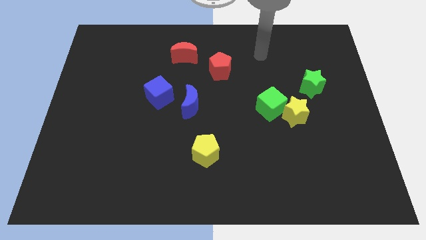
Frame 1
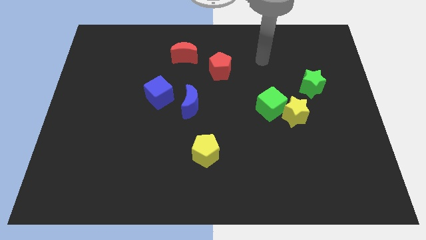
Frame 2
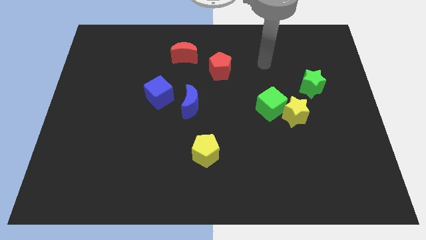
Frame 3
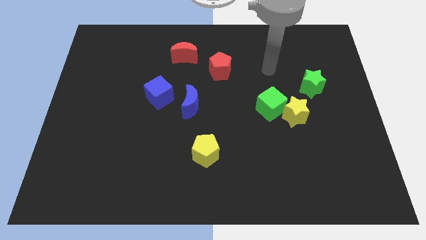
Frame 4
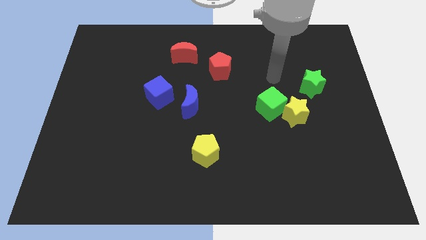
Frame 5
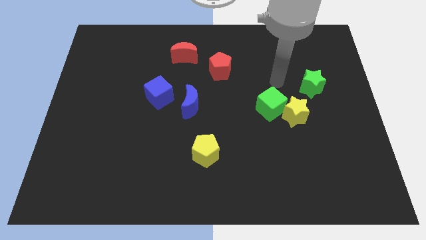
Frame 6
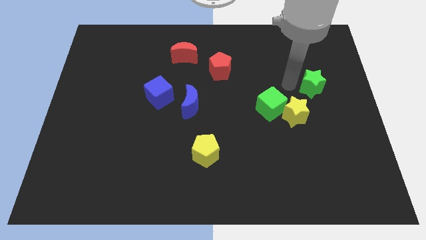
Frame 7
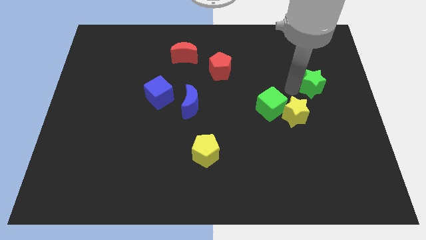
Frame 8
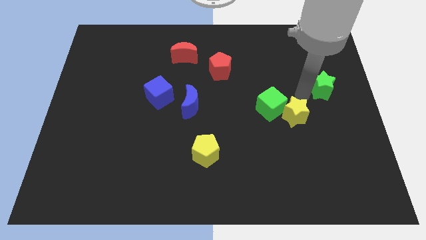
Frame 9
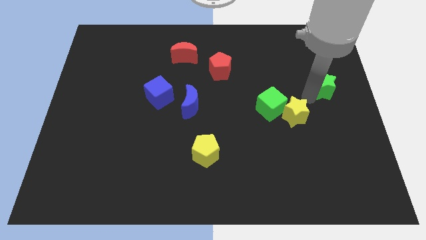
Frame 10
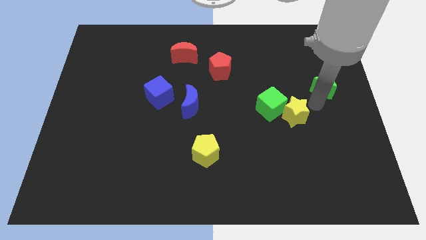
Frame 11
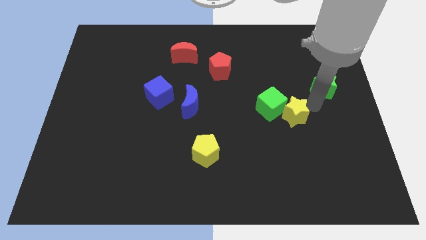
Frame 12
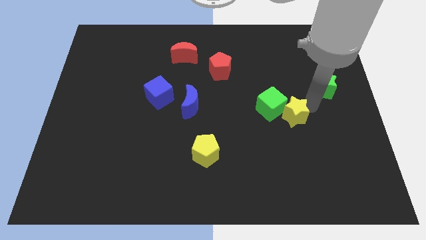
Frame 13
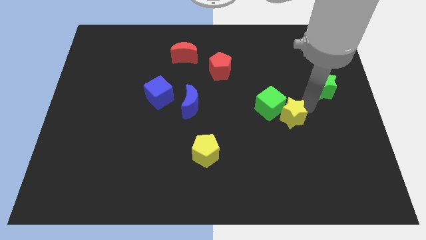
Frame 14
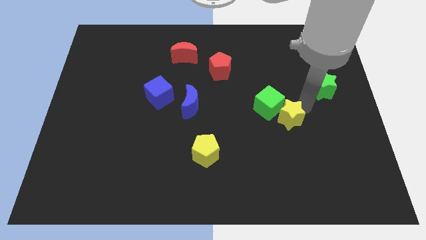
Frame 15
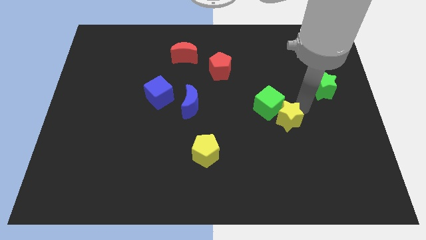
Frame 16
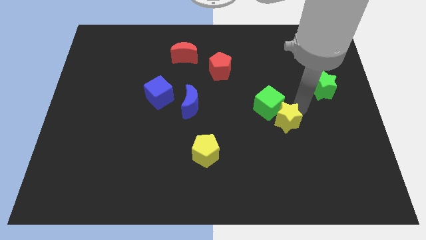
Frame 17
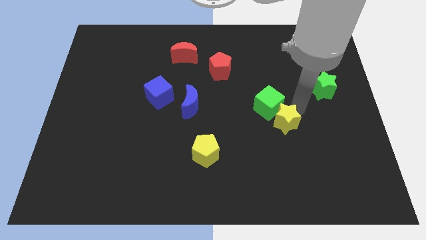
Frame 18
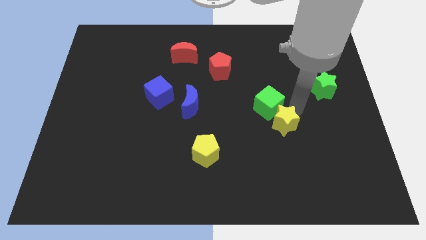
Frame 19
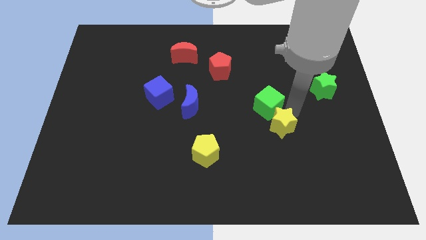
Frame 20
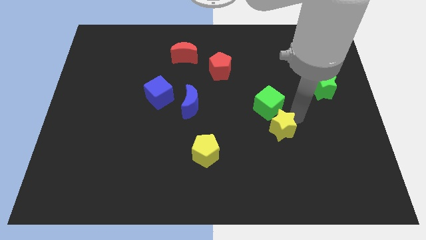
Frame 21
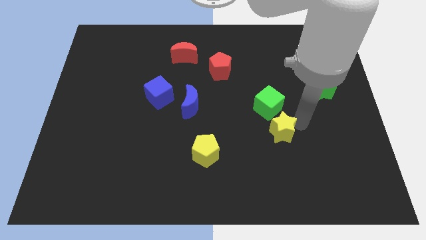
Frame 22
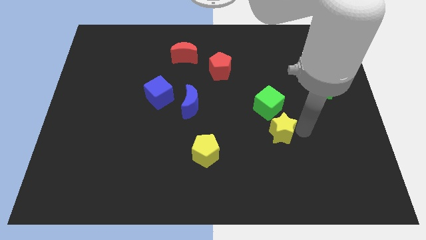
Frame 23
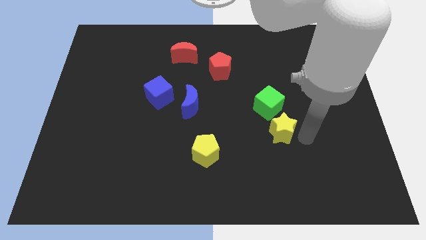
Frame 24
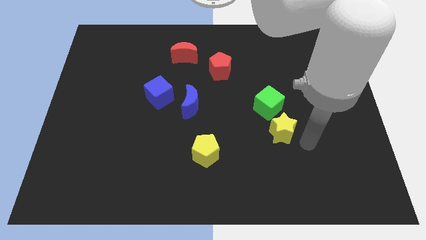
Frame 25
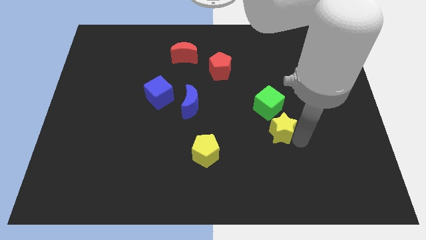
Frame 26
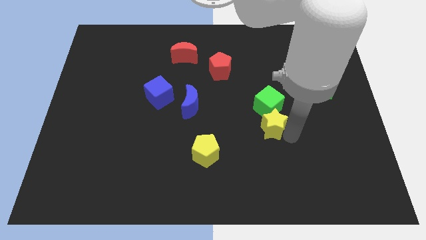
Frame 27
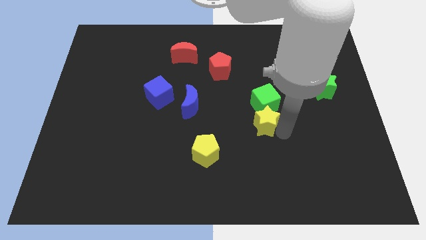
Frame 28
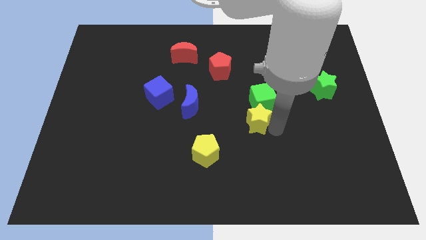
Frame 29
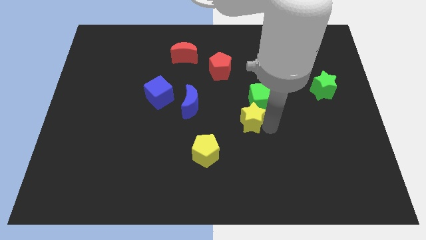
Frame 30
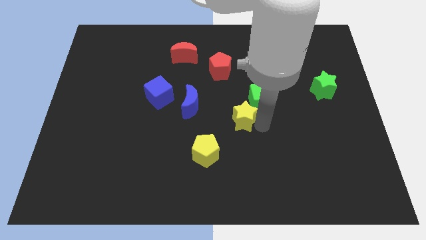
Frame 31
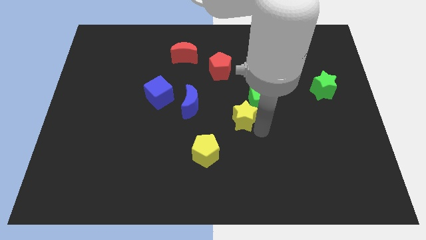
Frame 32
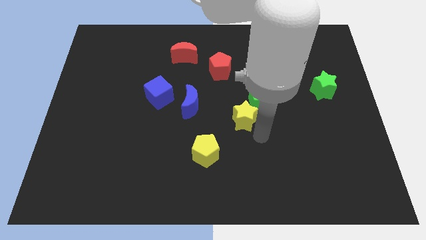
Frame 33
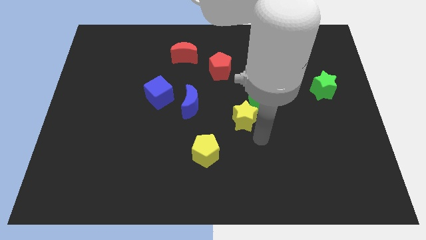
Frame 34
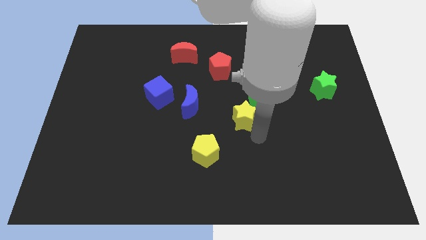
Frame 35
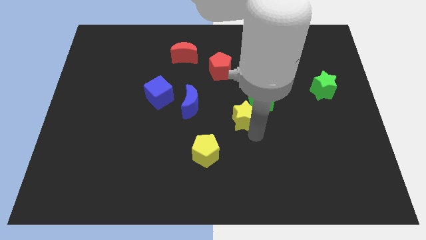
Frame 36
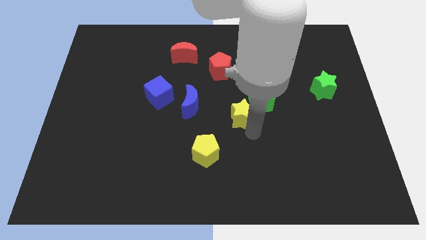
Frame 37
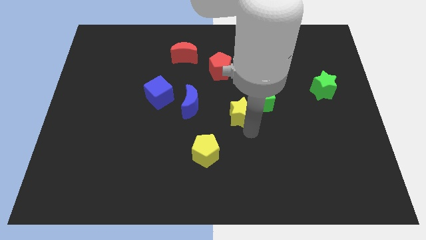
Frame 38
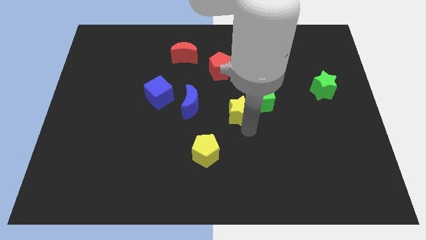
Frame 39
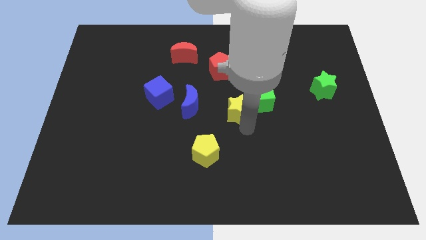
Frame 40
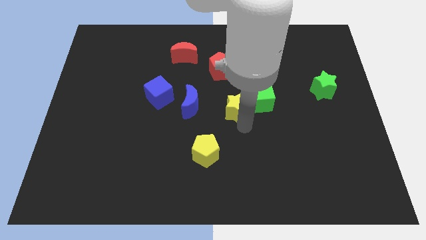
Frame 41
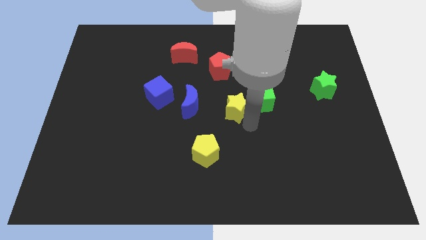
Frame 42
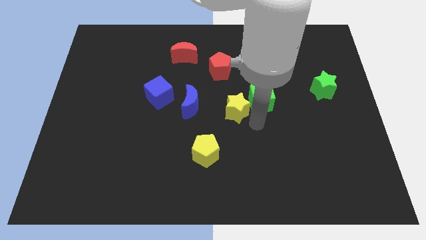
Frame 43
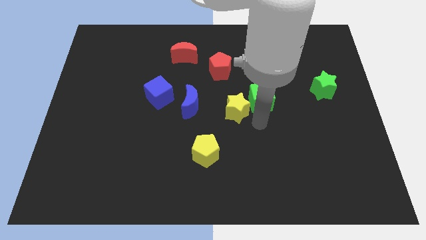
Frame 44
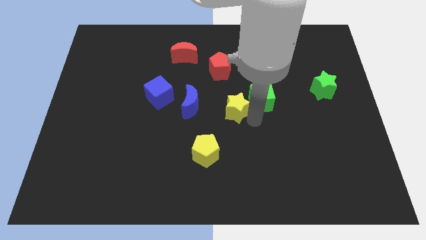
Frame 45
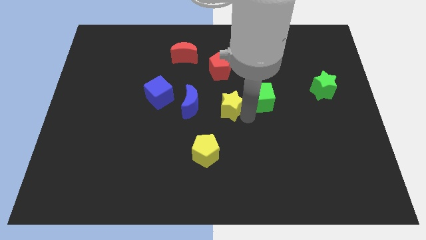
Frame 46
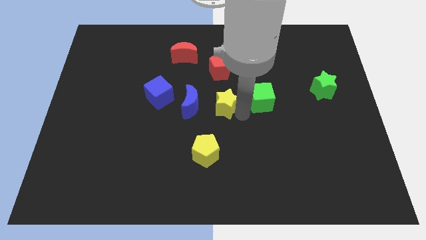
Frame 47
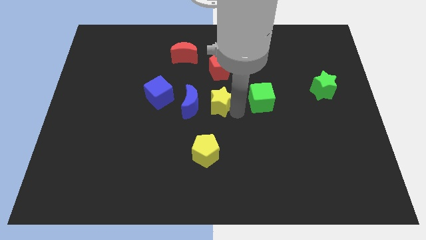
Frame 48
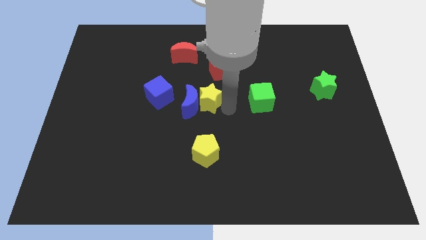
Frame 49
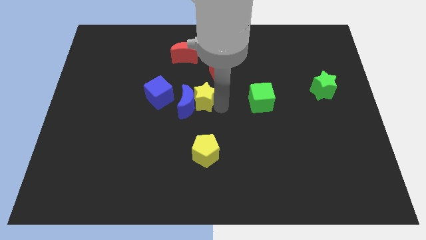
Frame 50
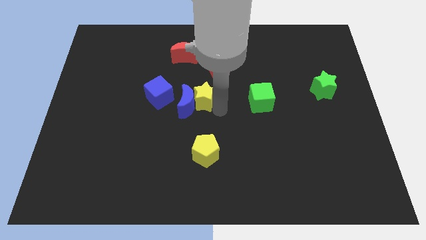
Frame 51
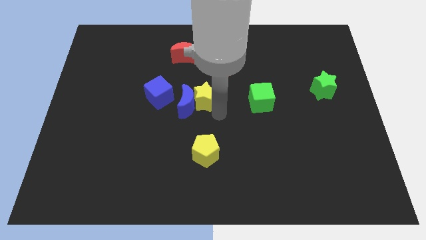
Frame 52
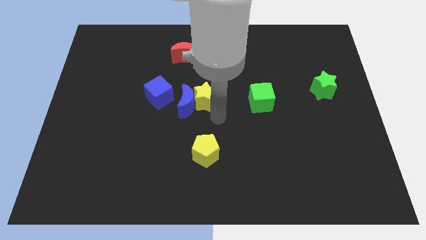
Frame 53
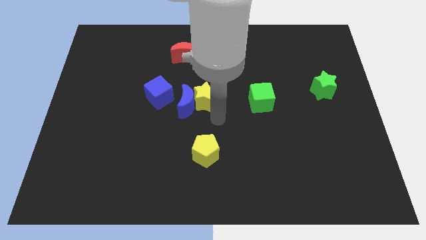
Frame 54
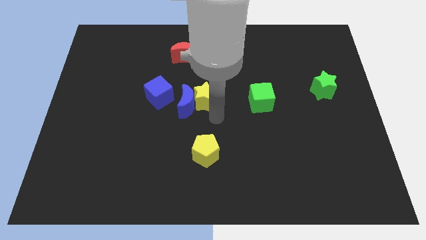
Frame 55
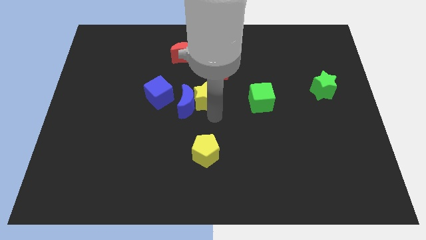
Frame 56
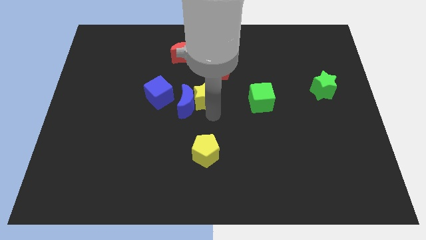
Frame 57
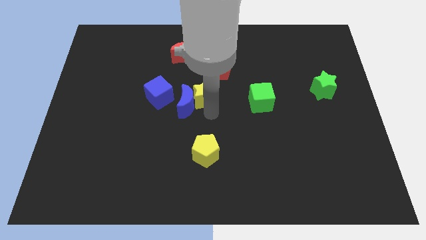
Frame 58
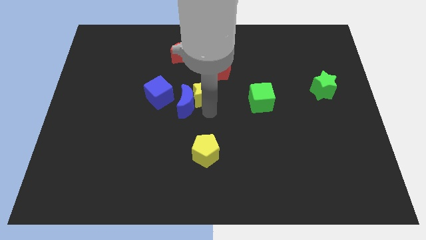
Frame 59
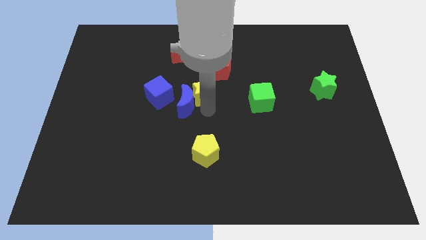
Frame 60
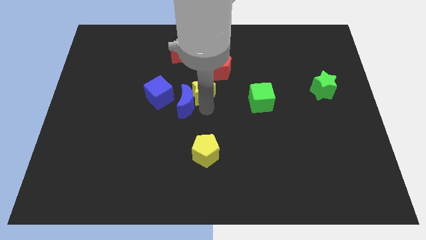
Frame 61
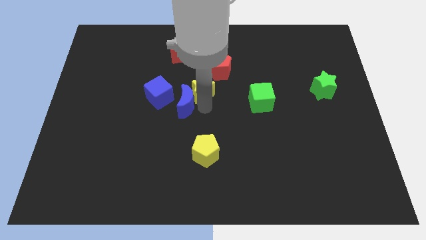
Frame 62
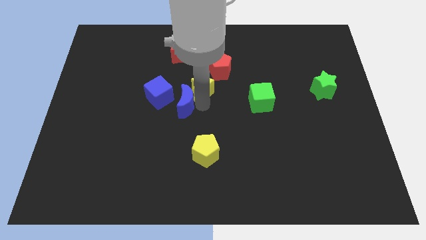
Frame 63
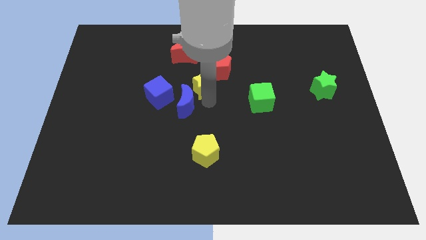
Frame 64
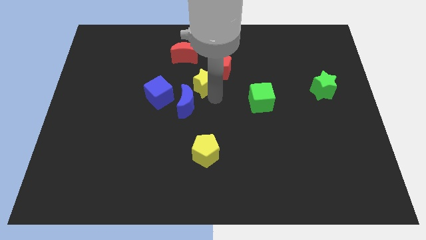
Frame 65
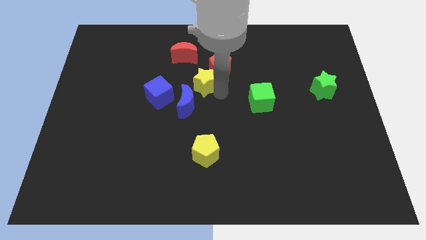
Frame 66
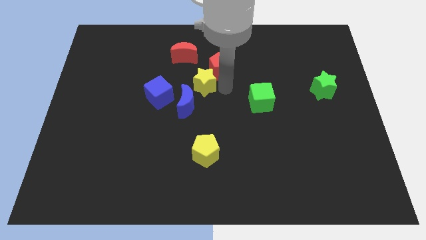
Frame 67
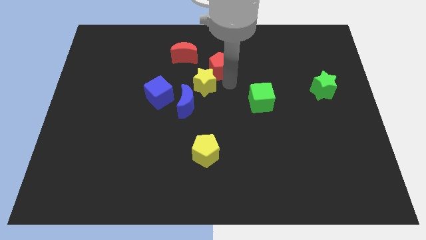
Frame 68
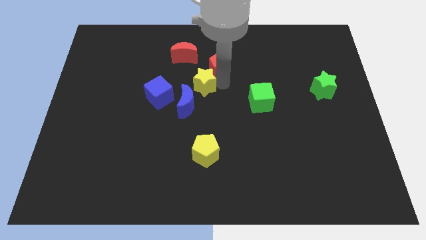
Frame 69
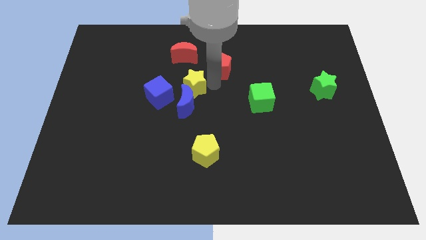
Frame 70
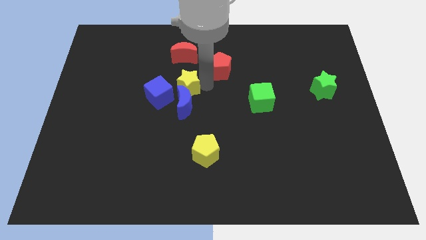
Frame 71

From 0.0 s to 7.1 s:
slide the yellow star to the top left of the blue moon
